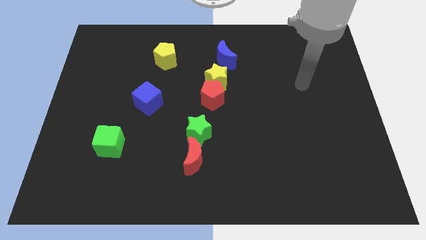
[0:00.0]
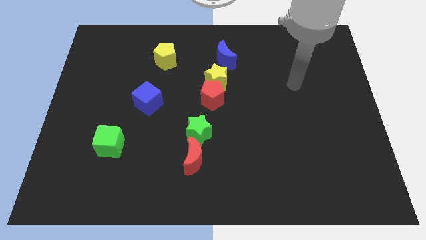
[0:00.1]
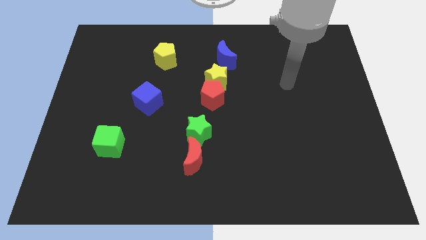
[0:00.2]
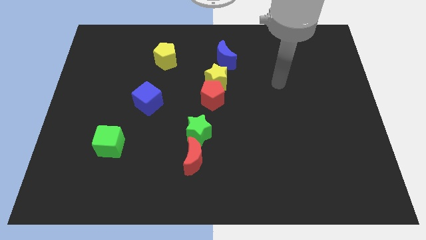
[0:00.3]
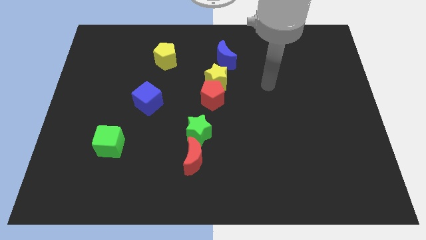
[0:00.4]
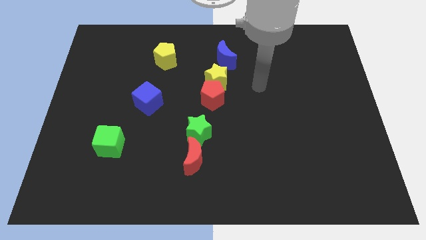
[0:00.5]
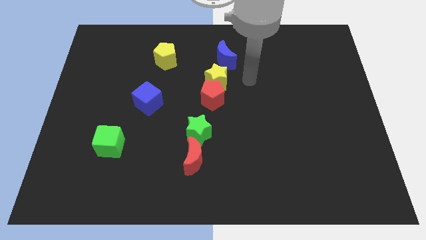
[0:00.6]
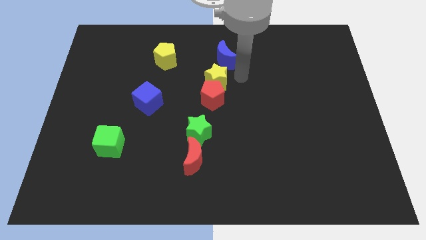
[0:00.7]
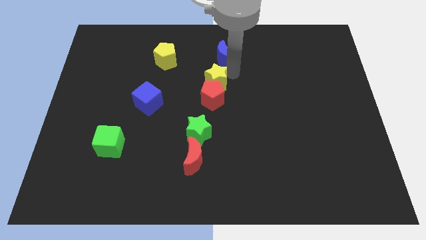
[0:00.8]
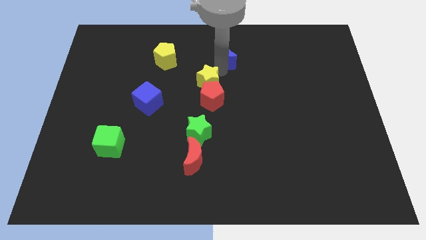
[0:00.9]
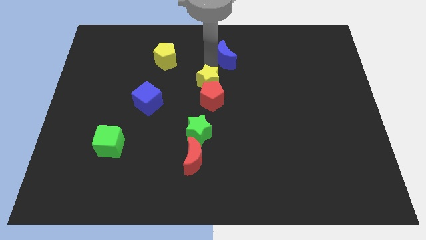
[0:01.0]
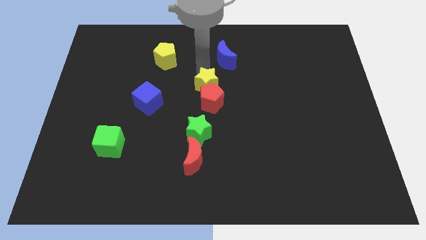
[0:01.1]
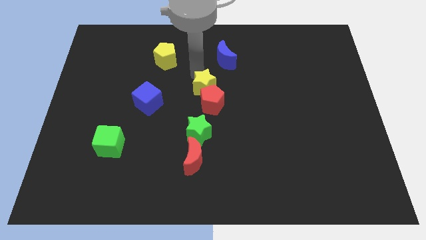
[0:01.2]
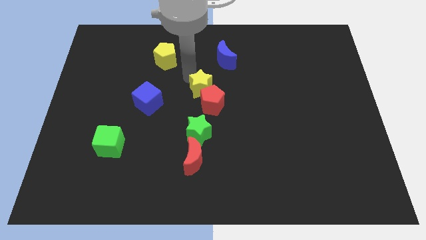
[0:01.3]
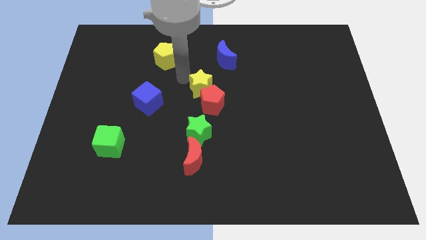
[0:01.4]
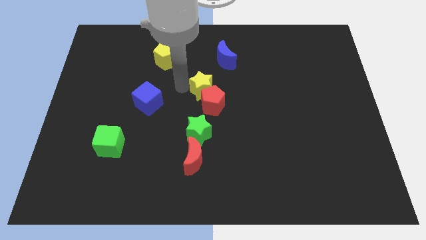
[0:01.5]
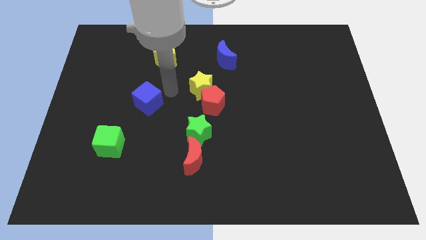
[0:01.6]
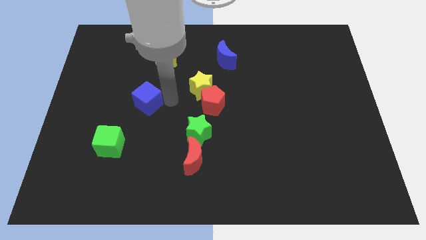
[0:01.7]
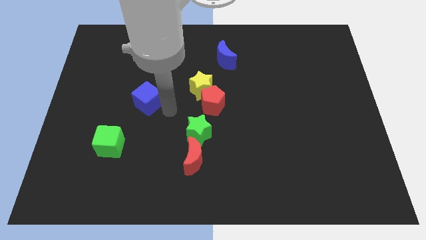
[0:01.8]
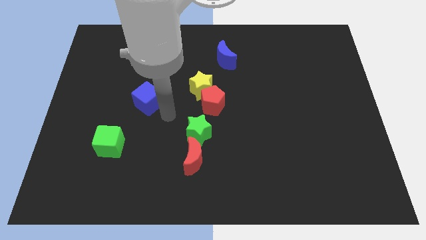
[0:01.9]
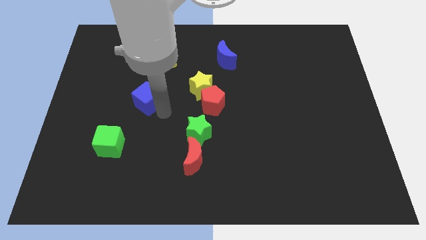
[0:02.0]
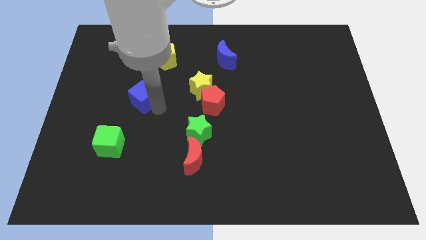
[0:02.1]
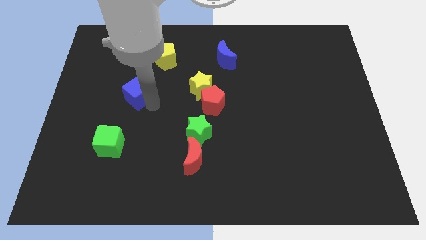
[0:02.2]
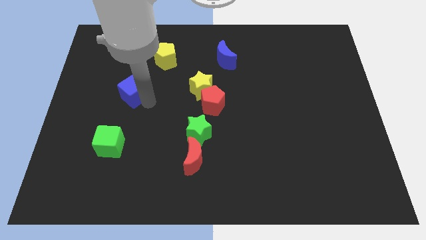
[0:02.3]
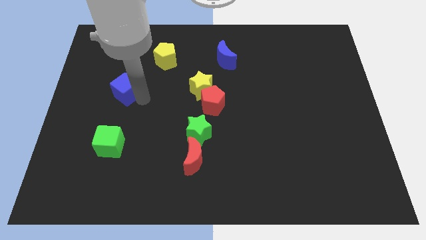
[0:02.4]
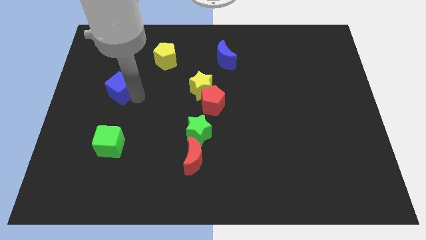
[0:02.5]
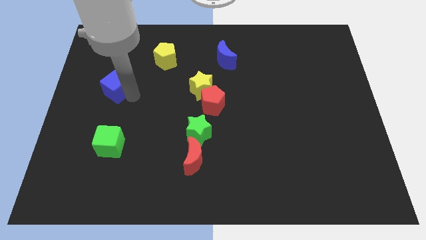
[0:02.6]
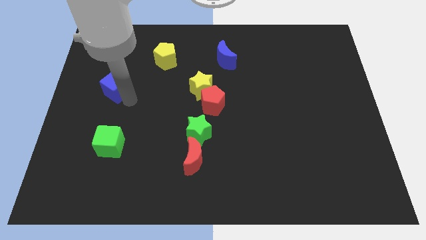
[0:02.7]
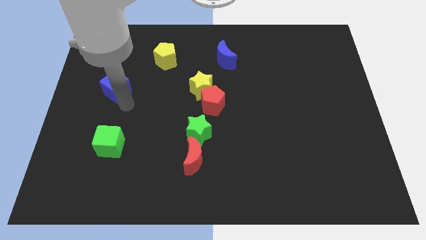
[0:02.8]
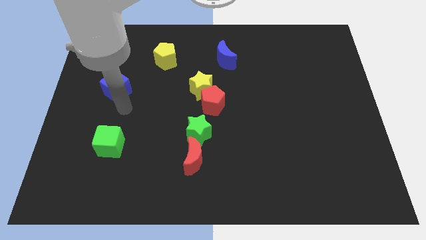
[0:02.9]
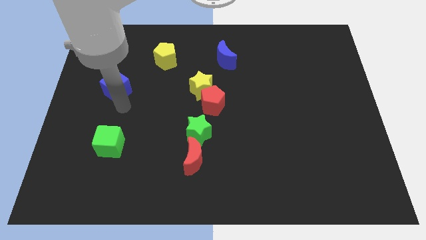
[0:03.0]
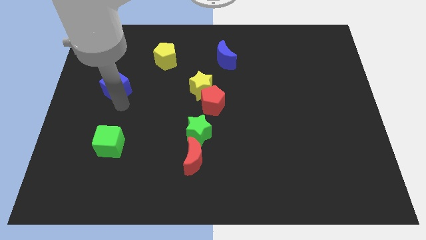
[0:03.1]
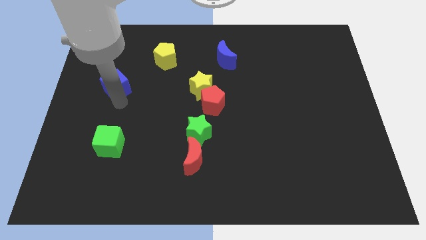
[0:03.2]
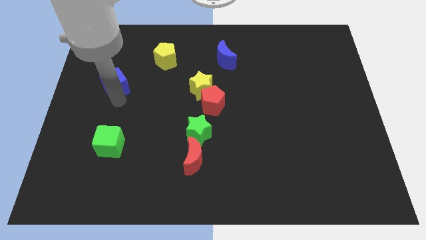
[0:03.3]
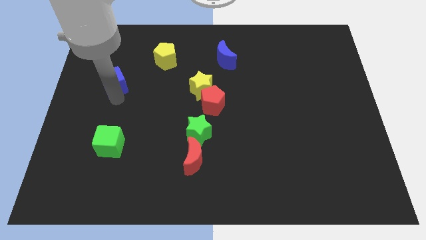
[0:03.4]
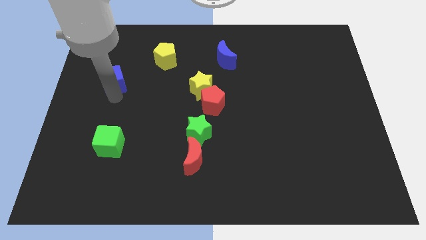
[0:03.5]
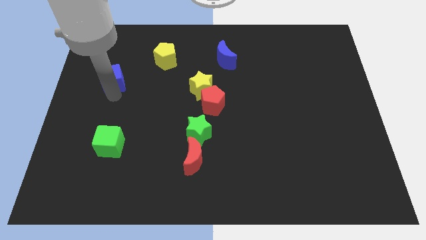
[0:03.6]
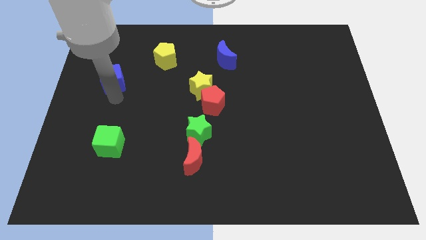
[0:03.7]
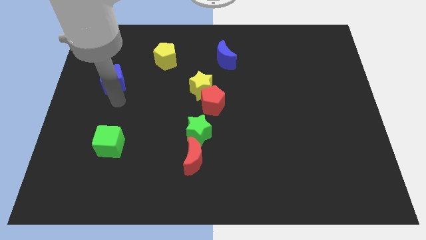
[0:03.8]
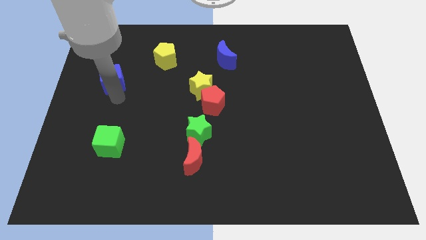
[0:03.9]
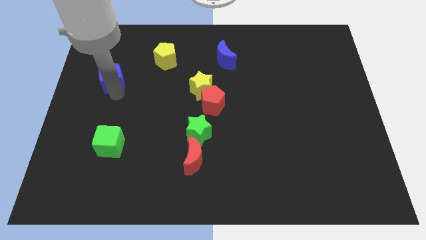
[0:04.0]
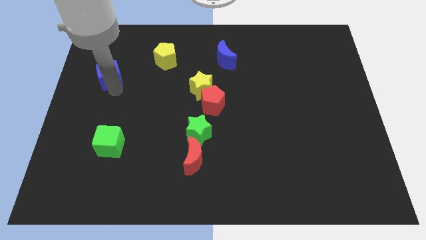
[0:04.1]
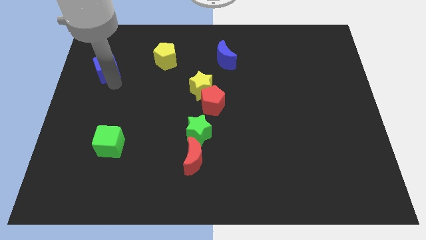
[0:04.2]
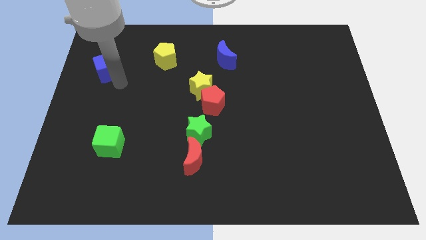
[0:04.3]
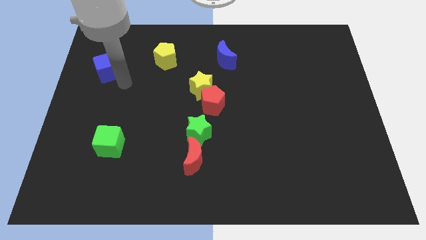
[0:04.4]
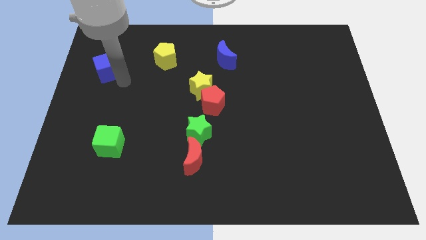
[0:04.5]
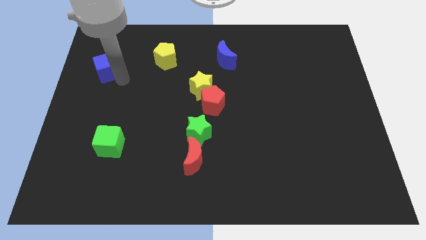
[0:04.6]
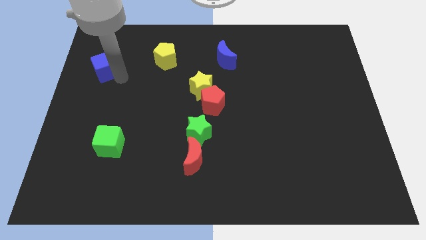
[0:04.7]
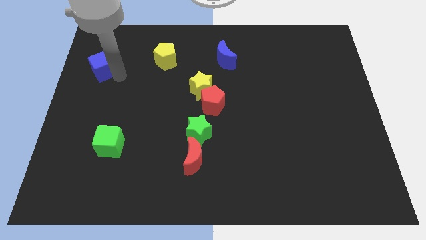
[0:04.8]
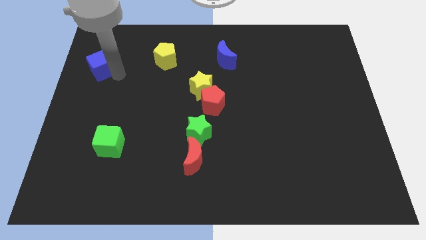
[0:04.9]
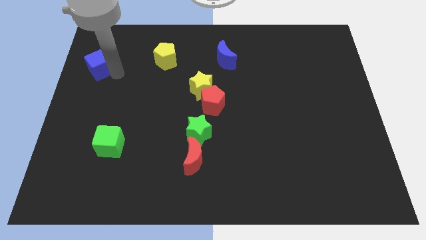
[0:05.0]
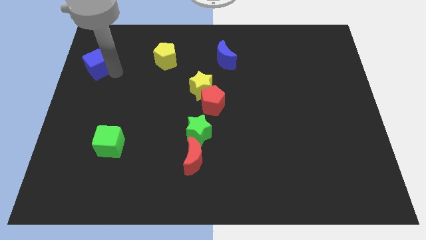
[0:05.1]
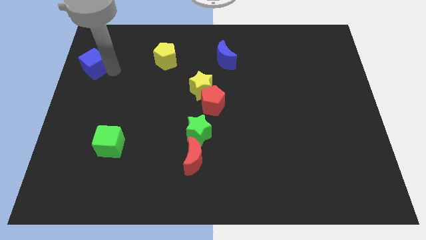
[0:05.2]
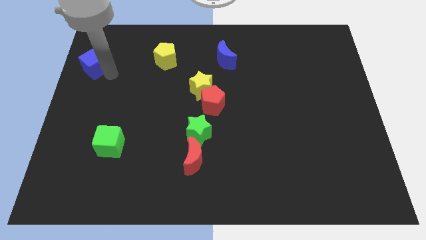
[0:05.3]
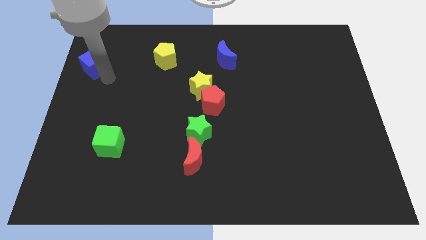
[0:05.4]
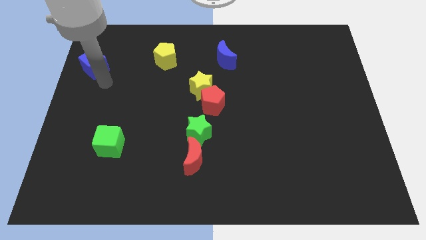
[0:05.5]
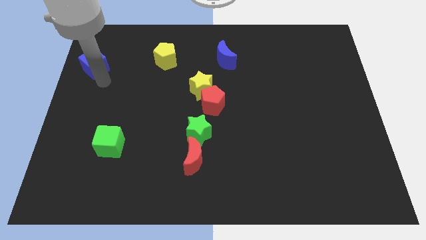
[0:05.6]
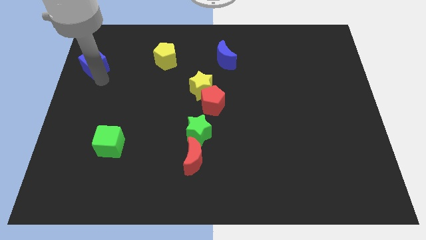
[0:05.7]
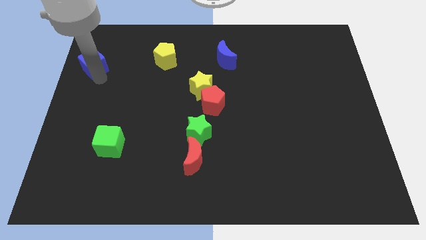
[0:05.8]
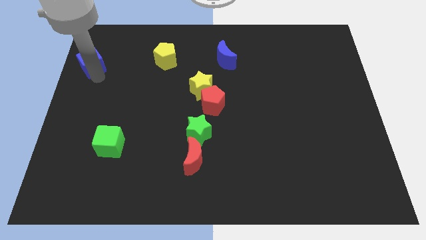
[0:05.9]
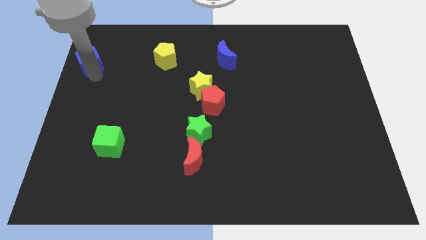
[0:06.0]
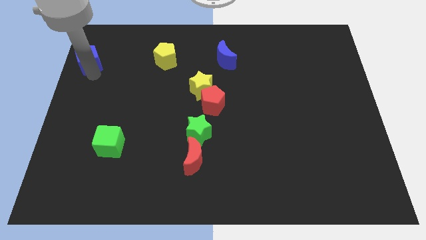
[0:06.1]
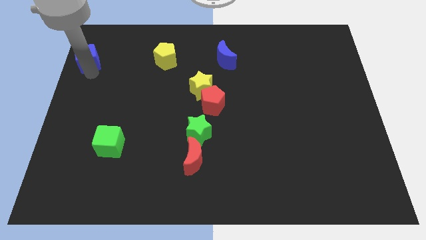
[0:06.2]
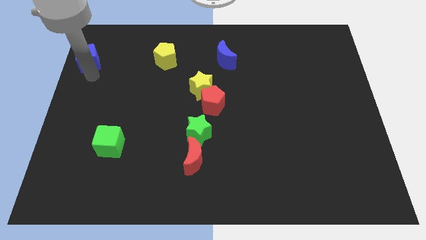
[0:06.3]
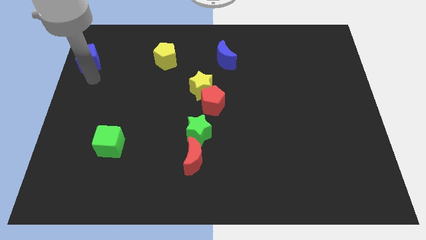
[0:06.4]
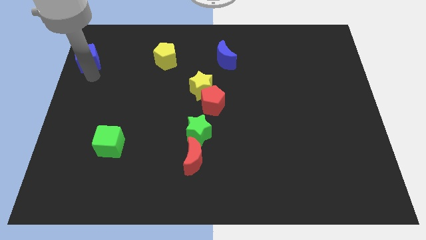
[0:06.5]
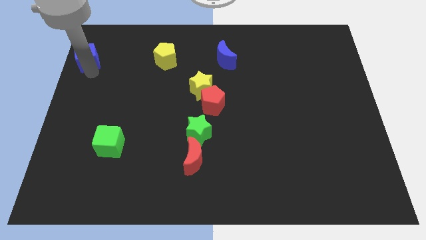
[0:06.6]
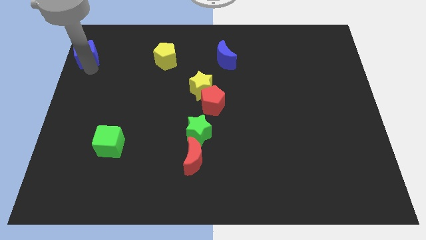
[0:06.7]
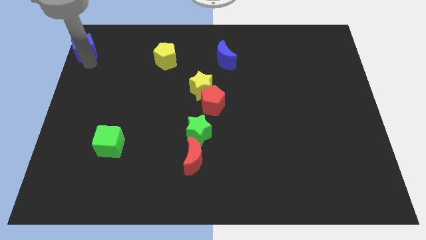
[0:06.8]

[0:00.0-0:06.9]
push the blue cube to the upper left corner
